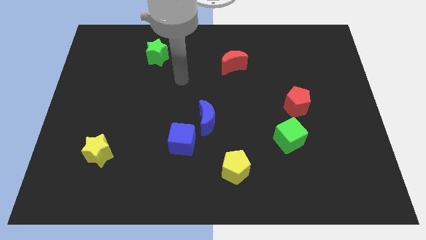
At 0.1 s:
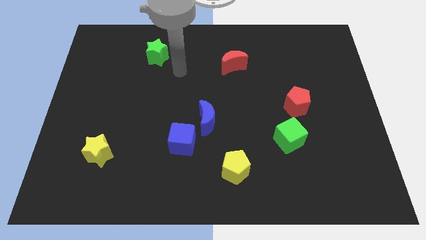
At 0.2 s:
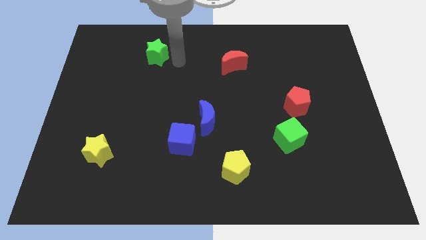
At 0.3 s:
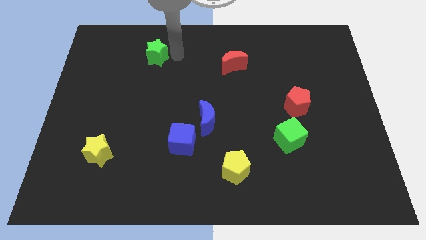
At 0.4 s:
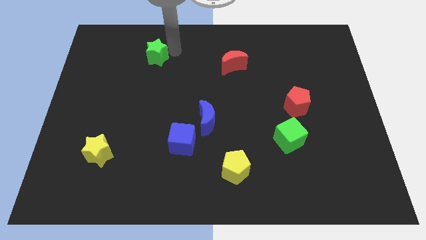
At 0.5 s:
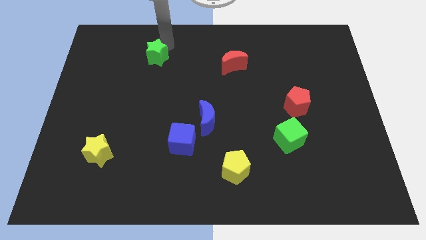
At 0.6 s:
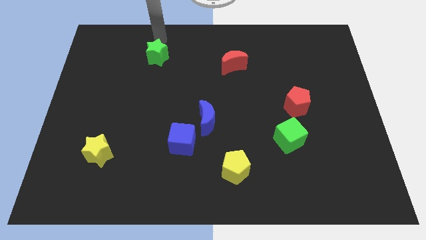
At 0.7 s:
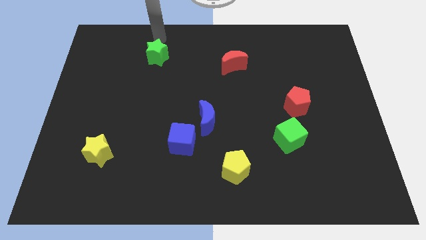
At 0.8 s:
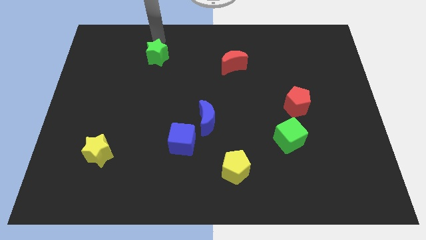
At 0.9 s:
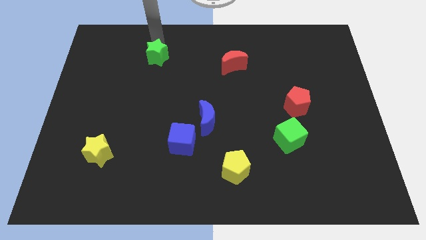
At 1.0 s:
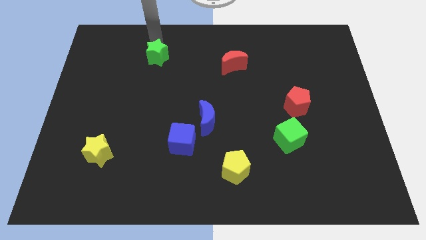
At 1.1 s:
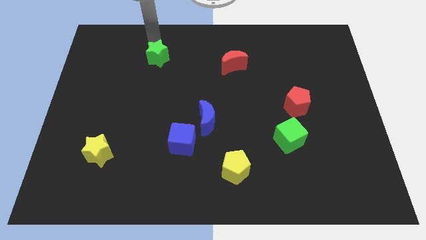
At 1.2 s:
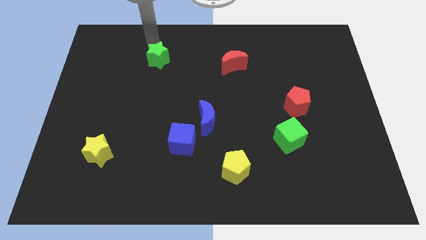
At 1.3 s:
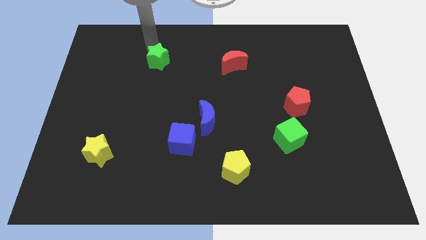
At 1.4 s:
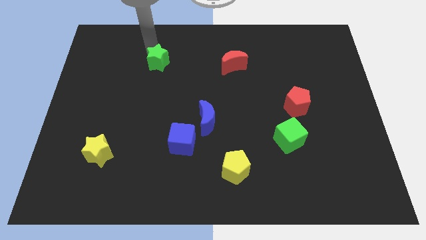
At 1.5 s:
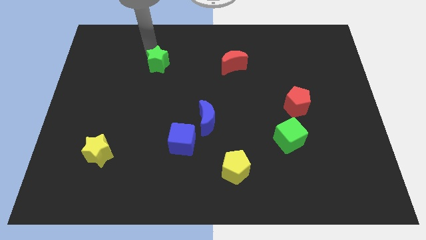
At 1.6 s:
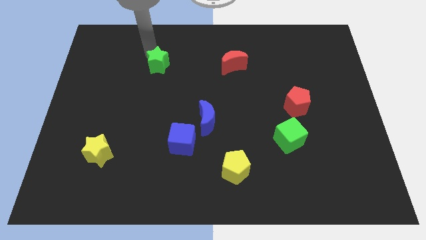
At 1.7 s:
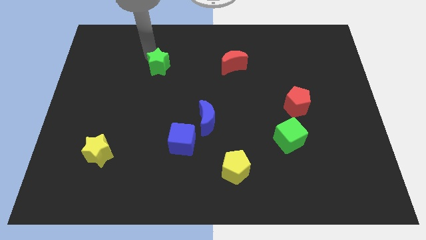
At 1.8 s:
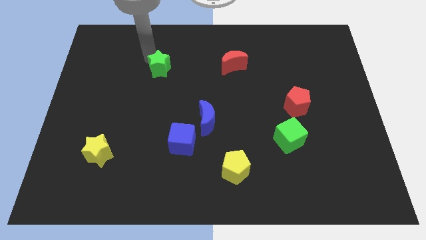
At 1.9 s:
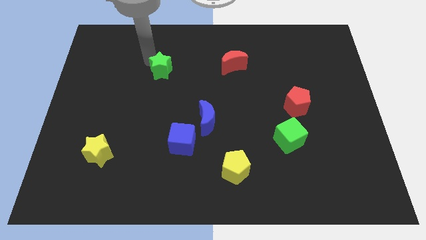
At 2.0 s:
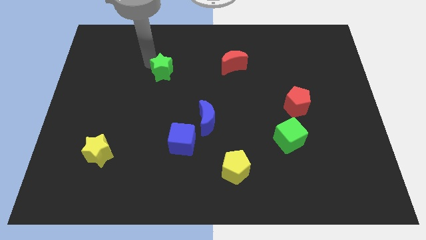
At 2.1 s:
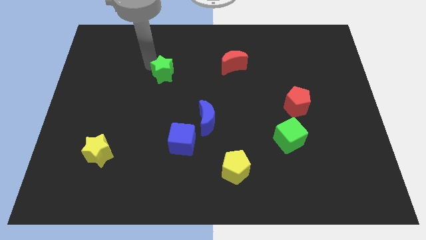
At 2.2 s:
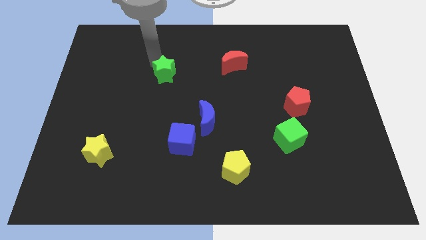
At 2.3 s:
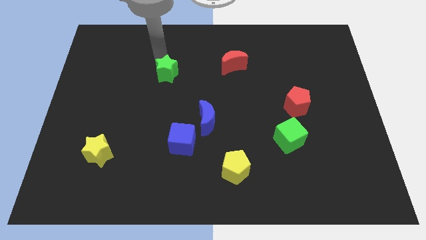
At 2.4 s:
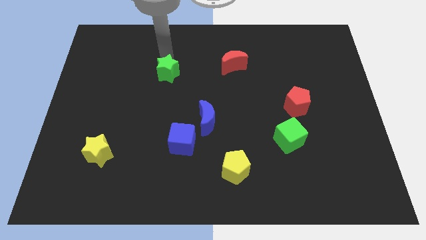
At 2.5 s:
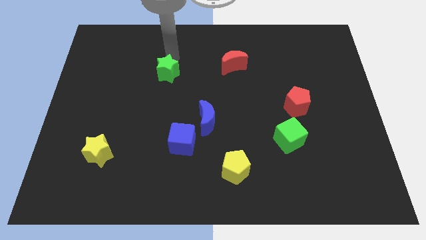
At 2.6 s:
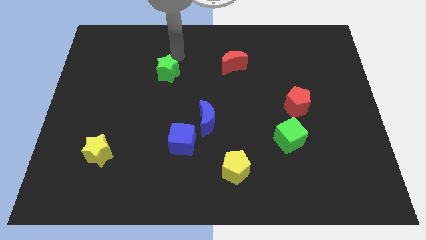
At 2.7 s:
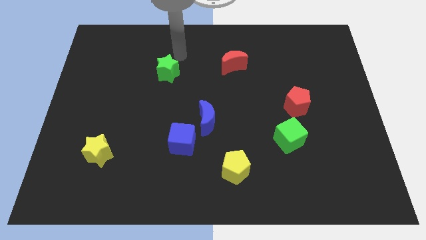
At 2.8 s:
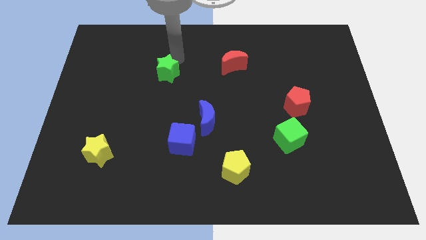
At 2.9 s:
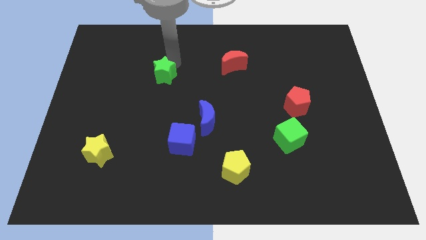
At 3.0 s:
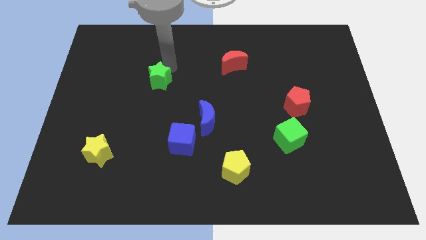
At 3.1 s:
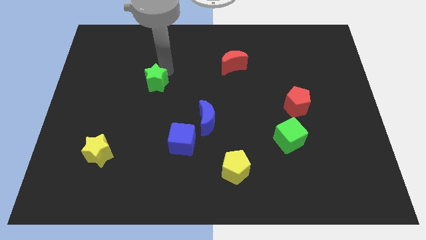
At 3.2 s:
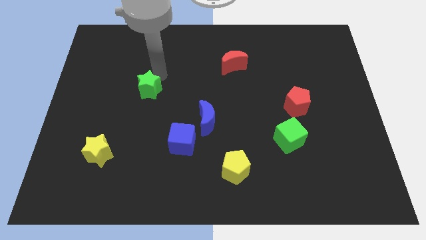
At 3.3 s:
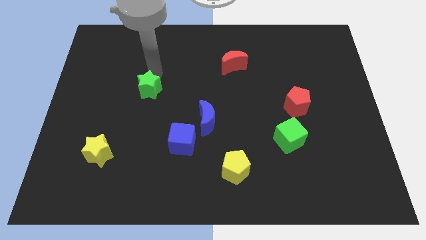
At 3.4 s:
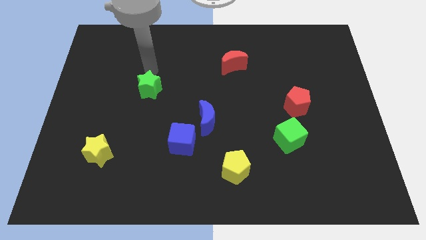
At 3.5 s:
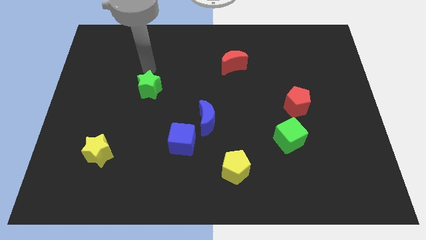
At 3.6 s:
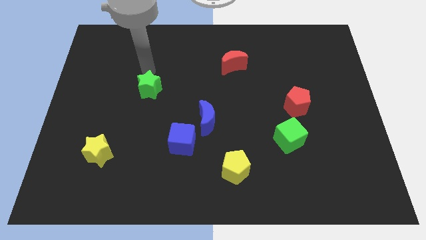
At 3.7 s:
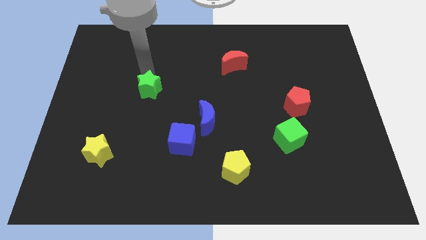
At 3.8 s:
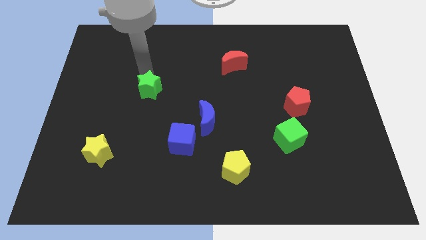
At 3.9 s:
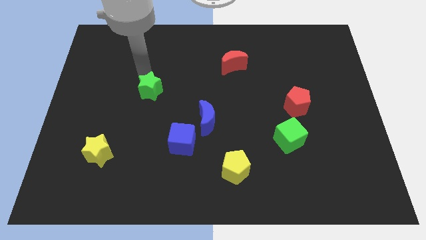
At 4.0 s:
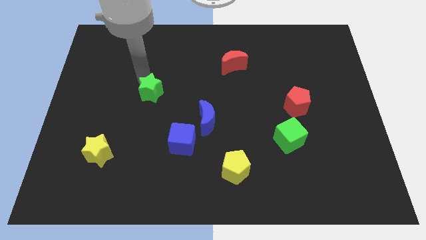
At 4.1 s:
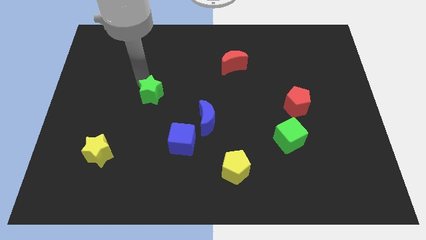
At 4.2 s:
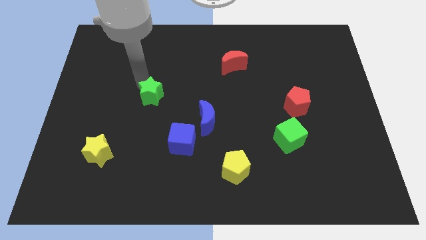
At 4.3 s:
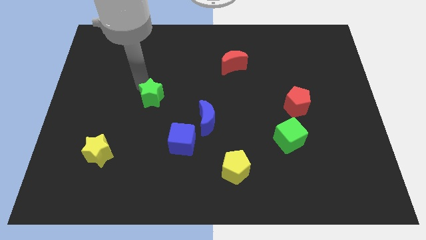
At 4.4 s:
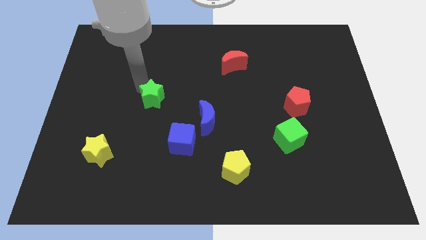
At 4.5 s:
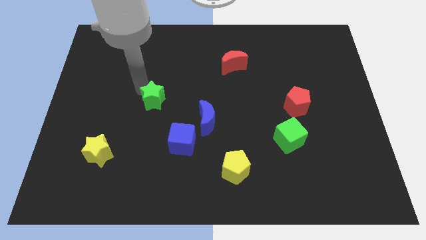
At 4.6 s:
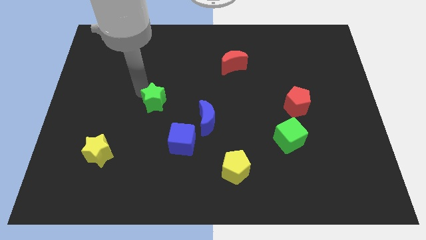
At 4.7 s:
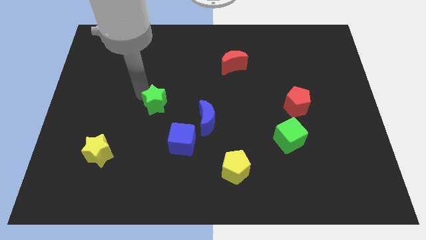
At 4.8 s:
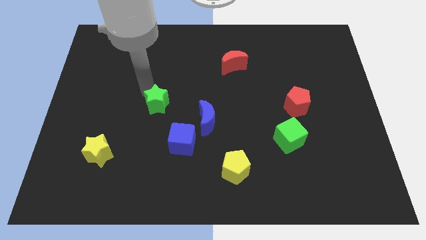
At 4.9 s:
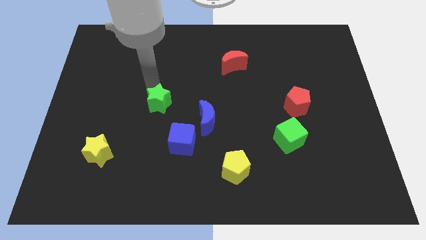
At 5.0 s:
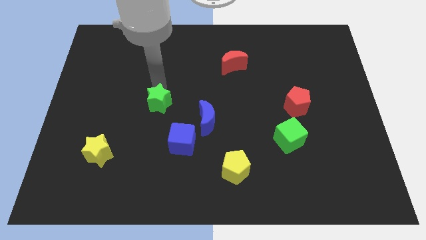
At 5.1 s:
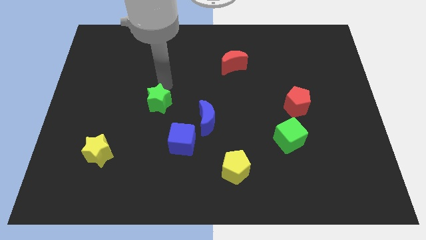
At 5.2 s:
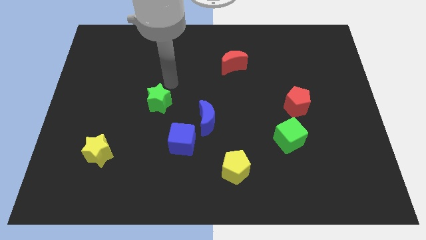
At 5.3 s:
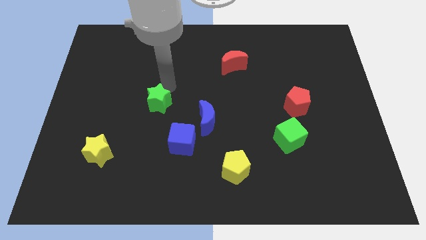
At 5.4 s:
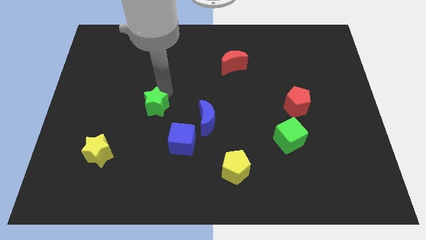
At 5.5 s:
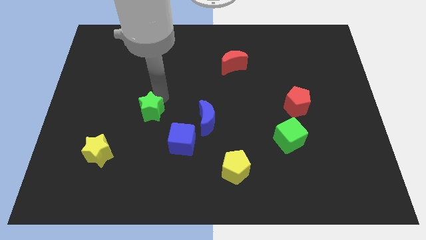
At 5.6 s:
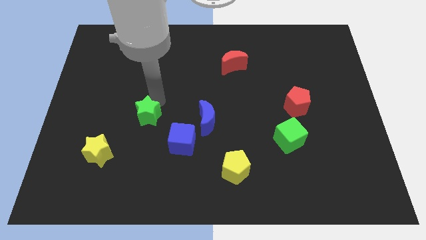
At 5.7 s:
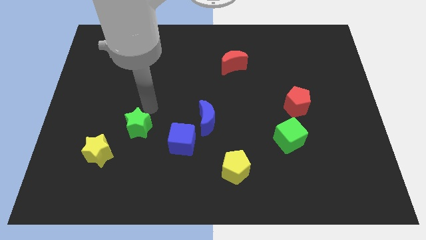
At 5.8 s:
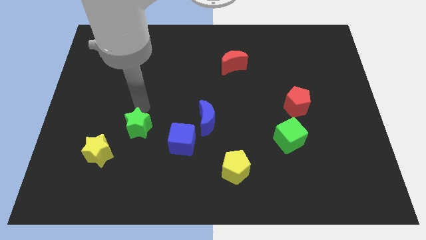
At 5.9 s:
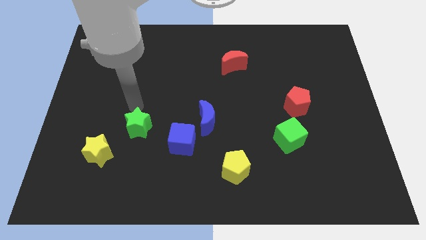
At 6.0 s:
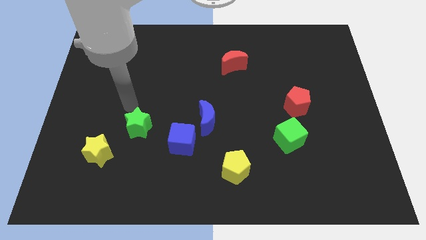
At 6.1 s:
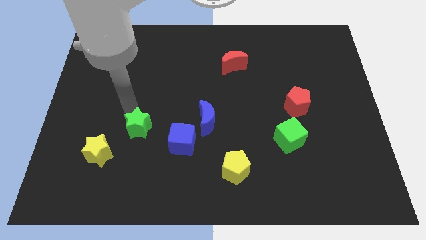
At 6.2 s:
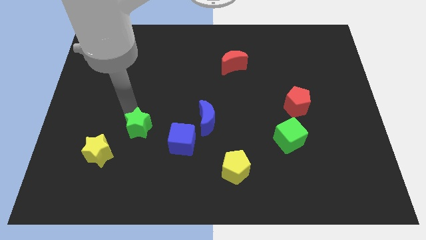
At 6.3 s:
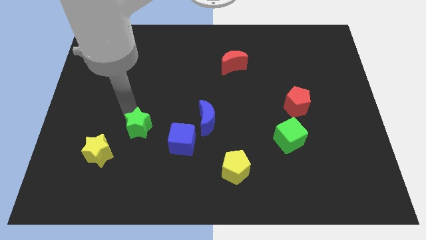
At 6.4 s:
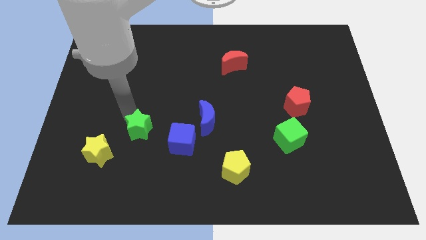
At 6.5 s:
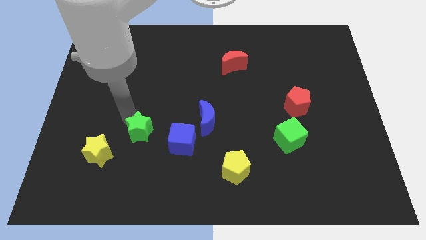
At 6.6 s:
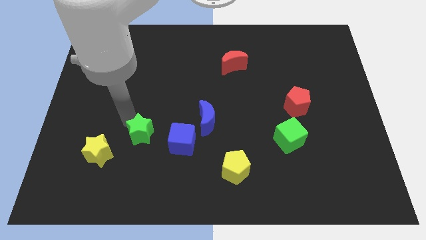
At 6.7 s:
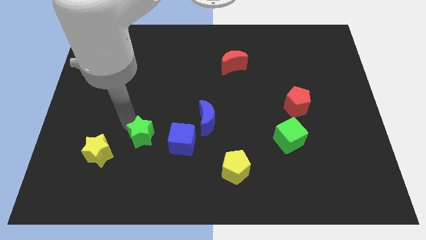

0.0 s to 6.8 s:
slide the green star right of the yellow star
